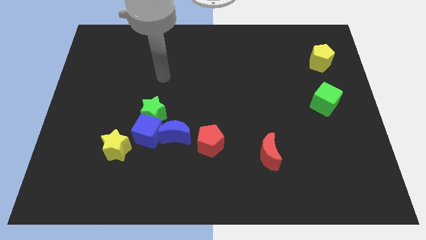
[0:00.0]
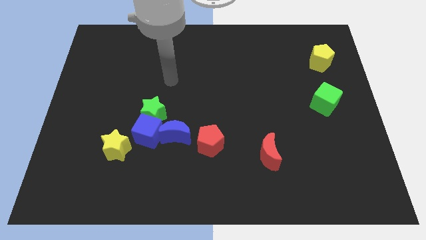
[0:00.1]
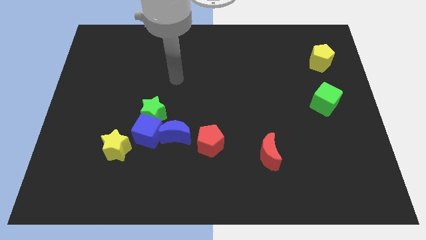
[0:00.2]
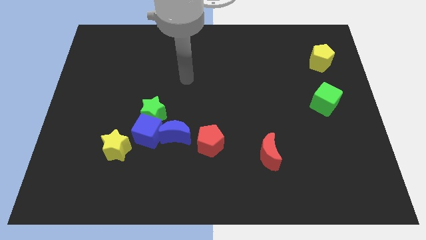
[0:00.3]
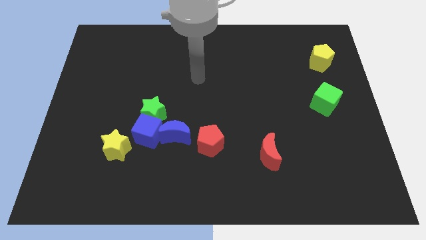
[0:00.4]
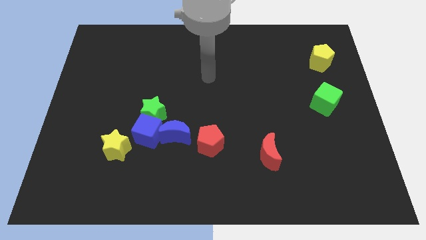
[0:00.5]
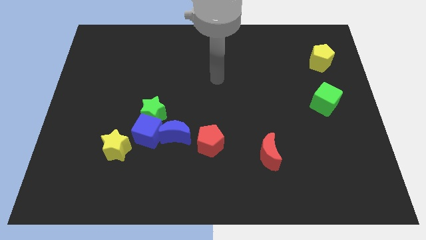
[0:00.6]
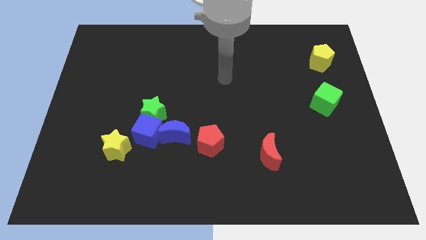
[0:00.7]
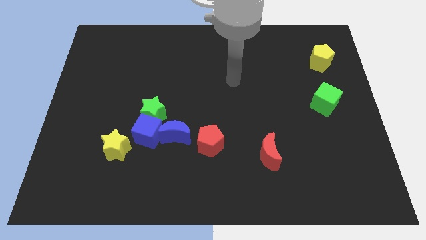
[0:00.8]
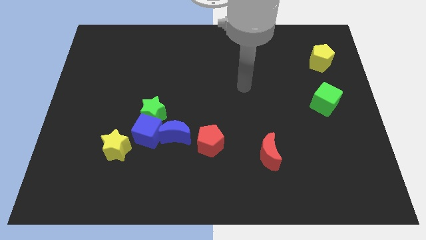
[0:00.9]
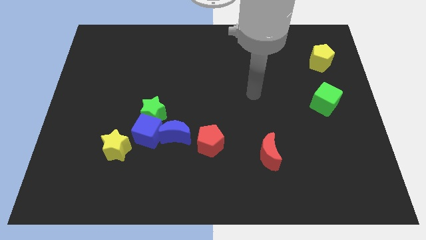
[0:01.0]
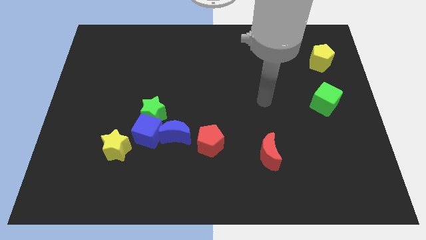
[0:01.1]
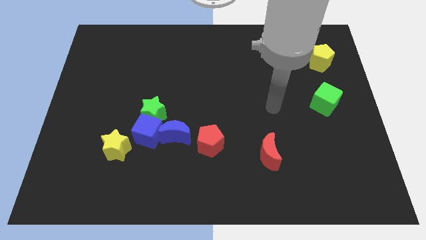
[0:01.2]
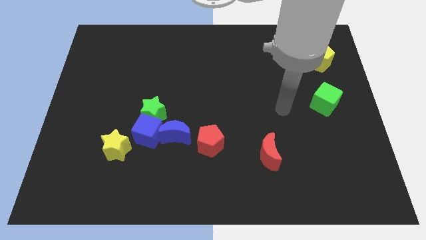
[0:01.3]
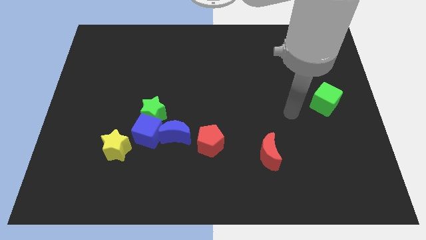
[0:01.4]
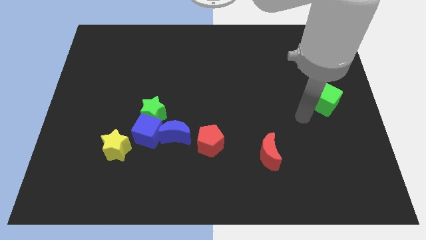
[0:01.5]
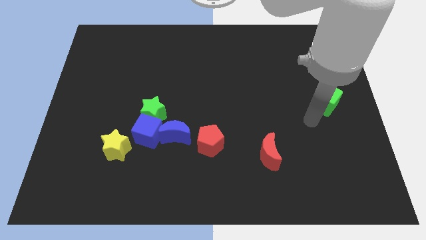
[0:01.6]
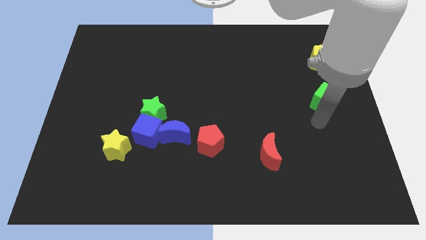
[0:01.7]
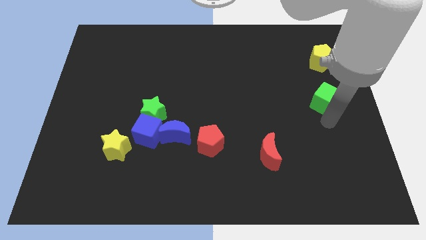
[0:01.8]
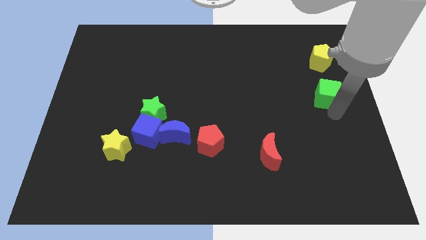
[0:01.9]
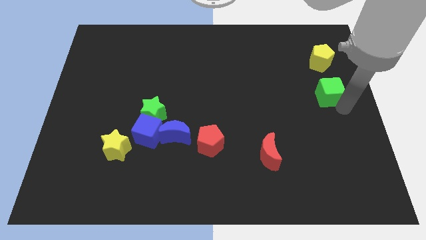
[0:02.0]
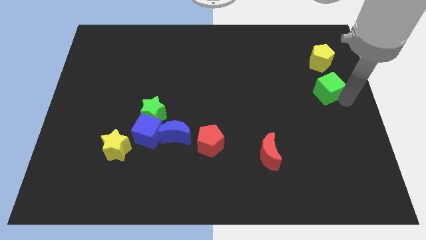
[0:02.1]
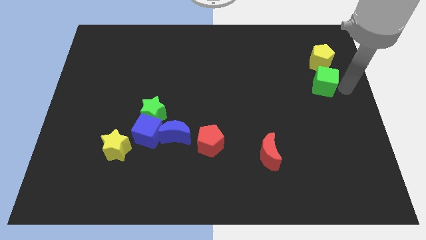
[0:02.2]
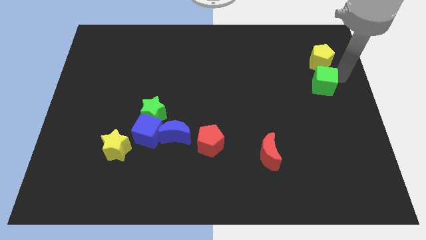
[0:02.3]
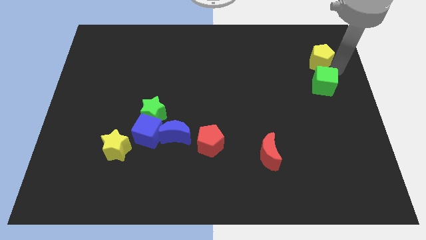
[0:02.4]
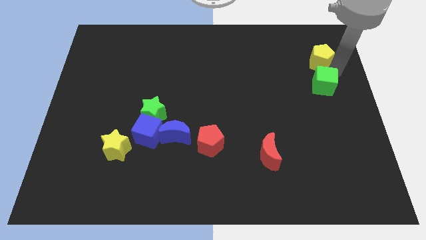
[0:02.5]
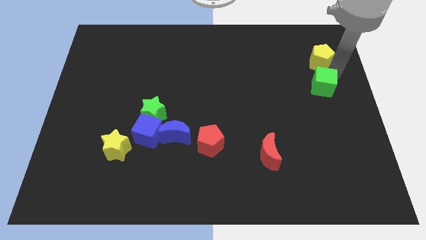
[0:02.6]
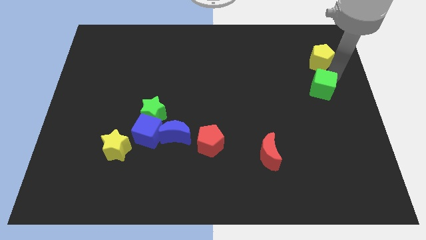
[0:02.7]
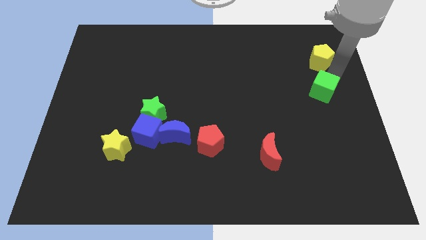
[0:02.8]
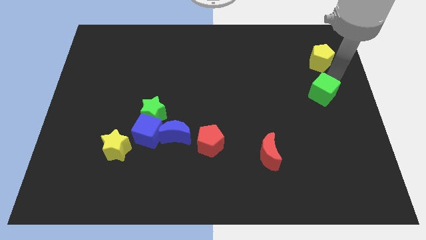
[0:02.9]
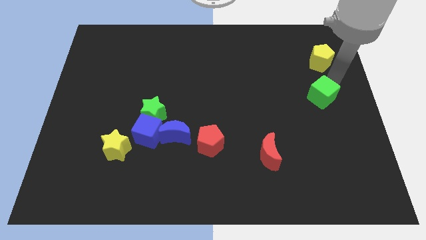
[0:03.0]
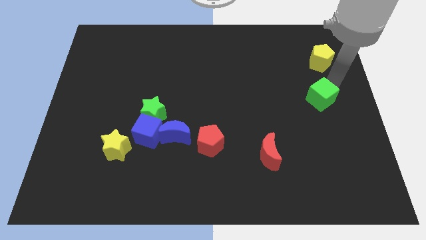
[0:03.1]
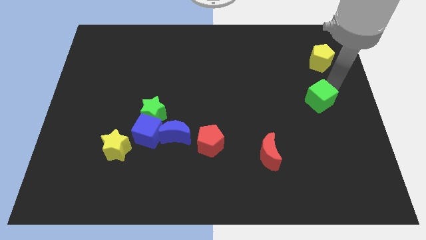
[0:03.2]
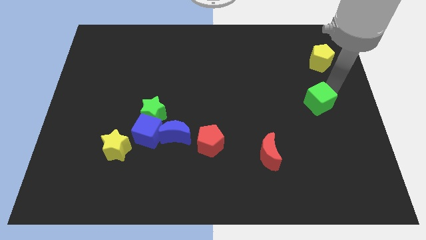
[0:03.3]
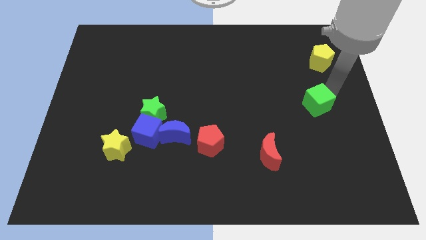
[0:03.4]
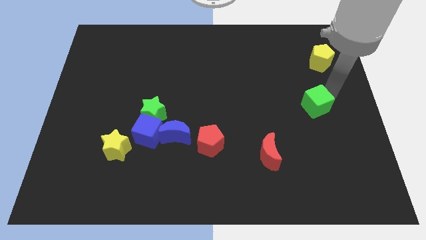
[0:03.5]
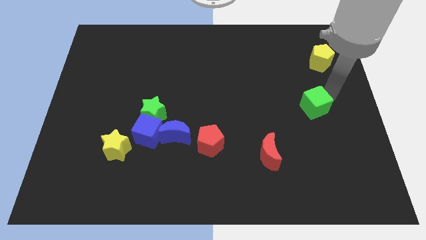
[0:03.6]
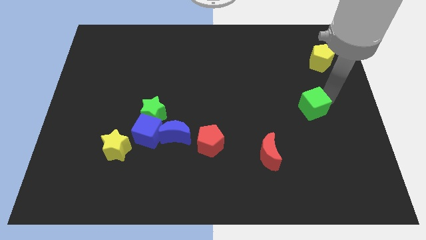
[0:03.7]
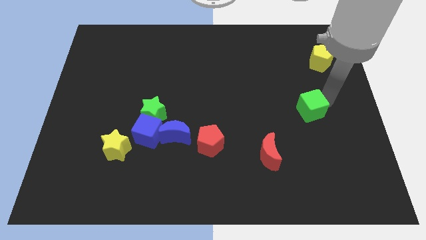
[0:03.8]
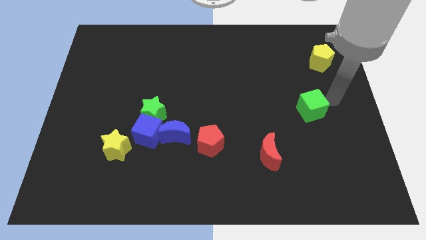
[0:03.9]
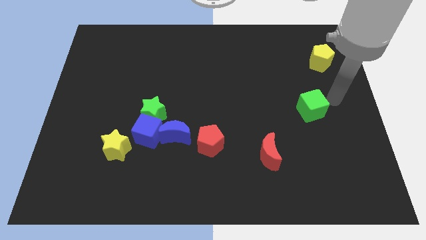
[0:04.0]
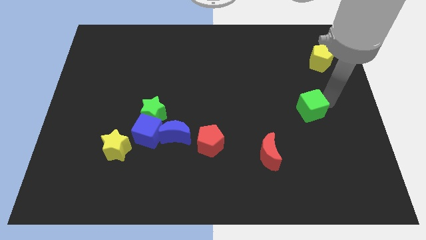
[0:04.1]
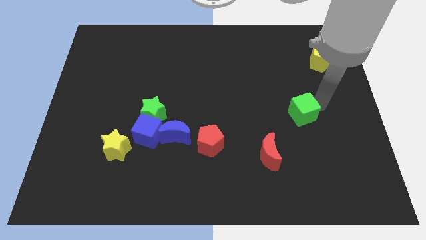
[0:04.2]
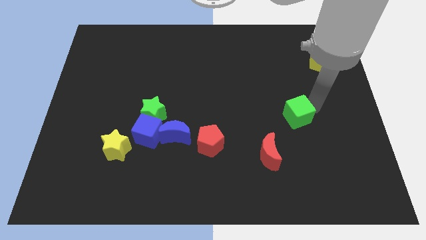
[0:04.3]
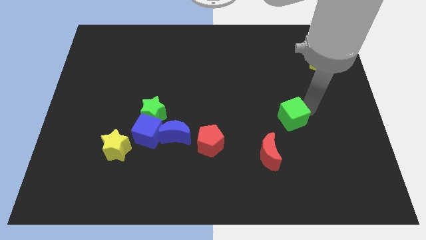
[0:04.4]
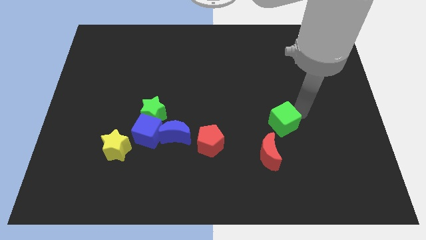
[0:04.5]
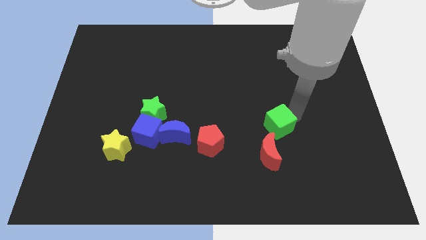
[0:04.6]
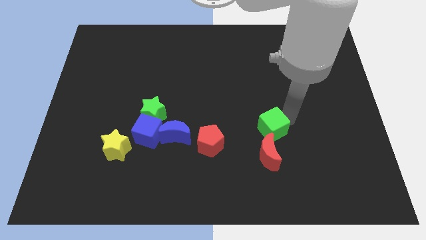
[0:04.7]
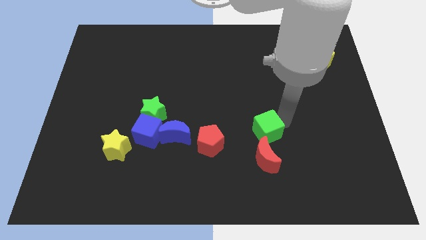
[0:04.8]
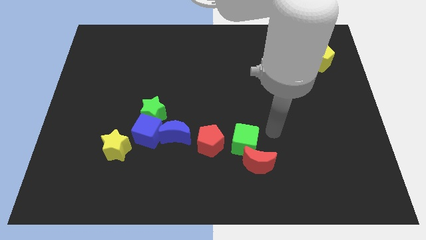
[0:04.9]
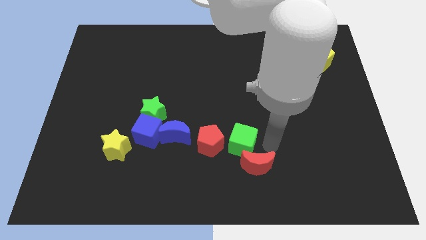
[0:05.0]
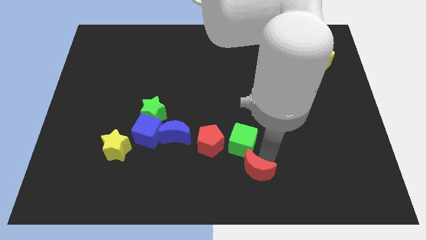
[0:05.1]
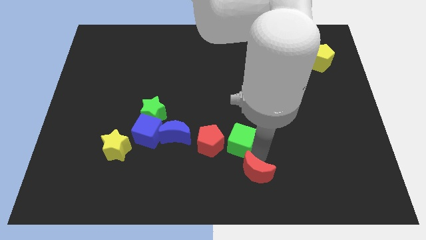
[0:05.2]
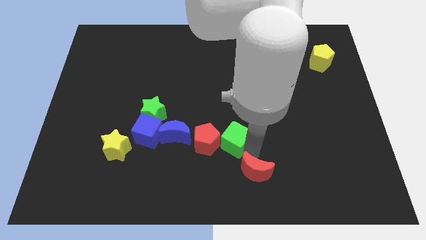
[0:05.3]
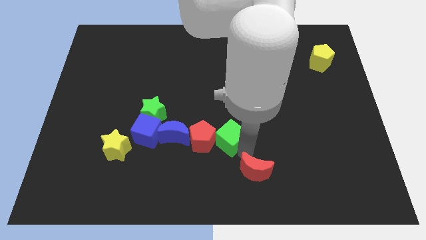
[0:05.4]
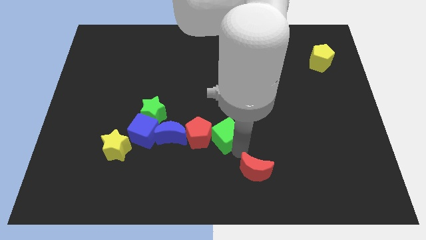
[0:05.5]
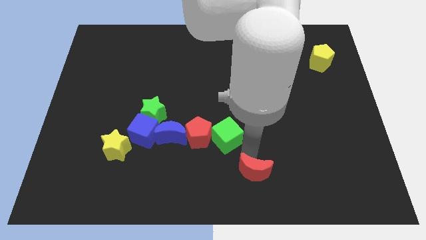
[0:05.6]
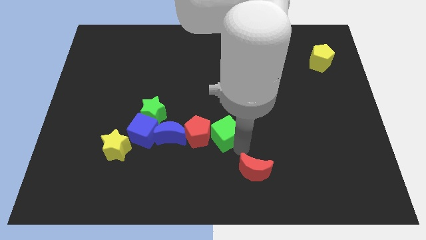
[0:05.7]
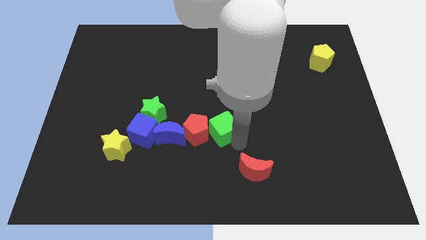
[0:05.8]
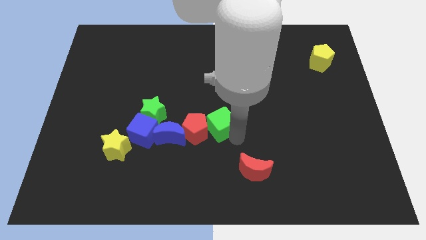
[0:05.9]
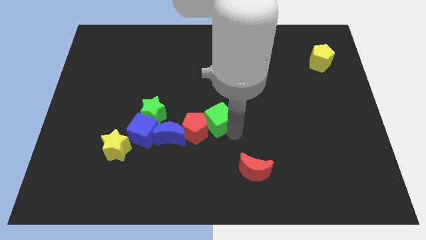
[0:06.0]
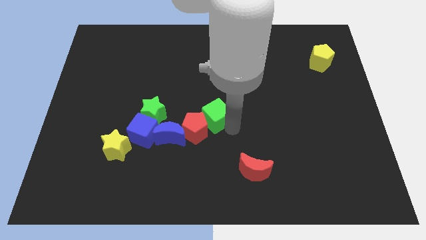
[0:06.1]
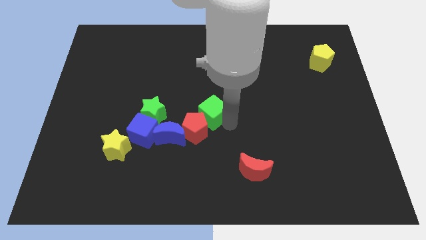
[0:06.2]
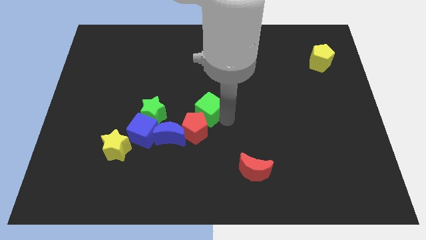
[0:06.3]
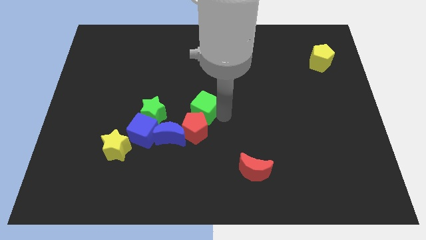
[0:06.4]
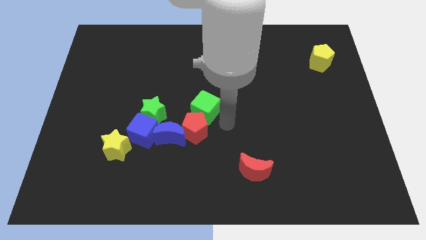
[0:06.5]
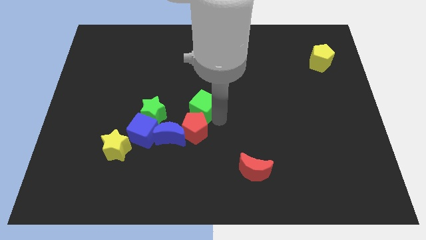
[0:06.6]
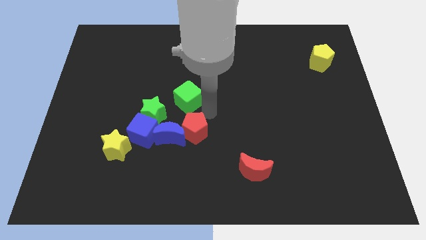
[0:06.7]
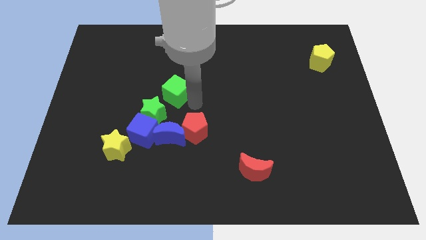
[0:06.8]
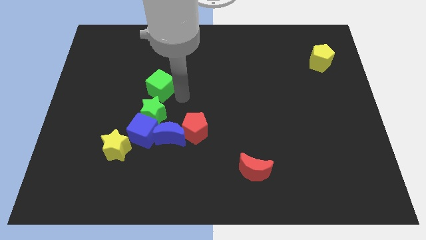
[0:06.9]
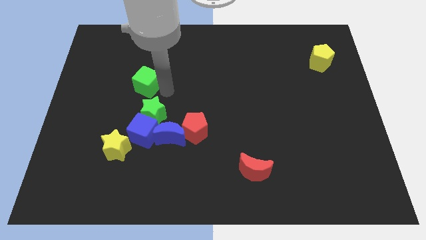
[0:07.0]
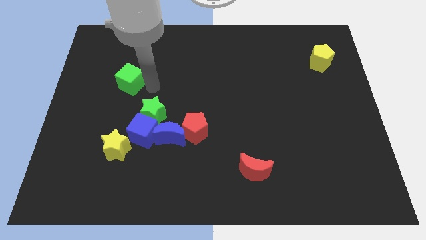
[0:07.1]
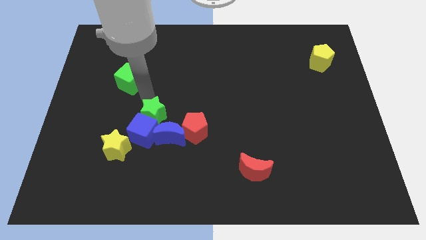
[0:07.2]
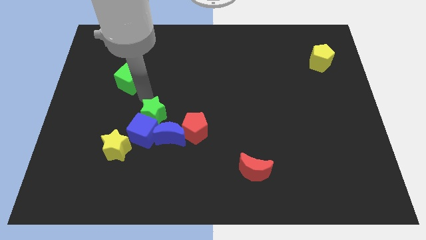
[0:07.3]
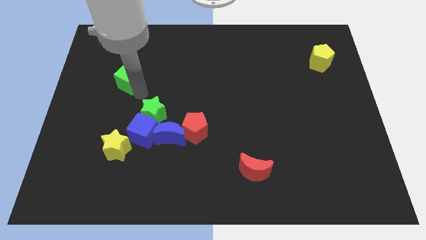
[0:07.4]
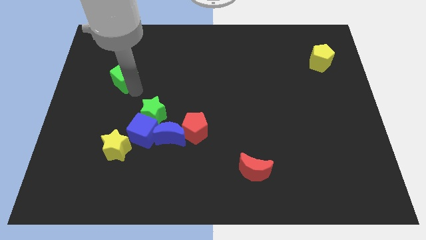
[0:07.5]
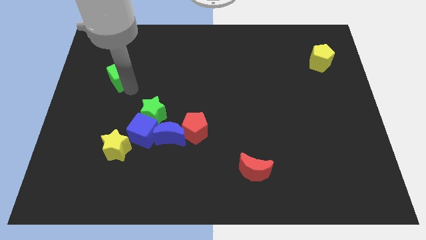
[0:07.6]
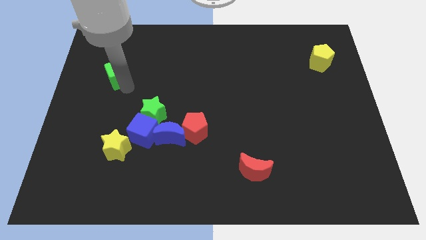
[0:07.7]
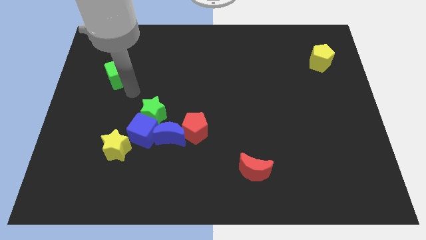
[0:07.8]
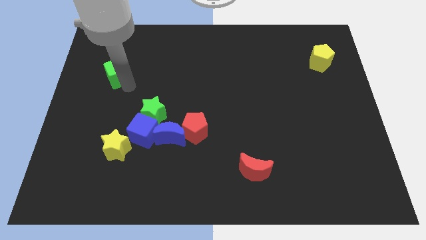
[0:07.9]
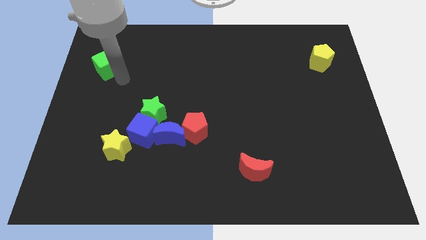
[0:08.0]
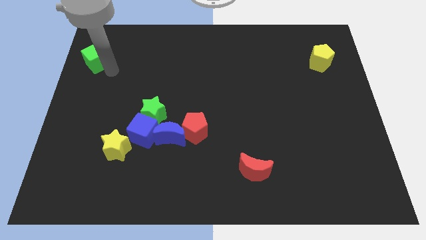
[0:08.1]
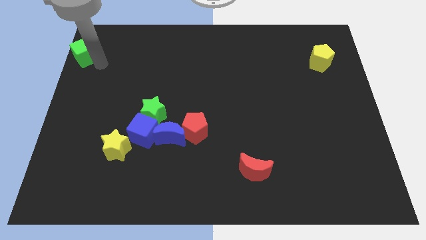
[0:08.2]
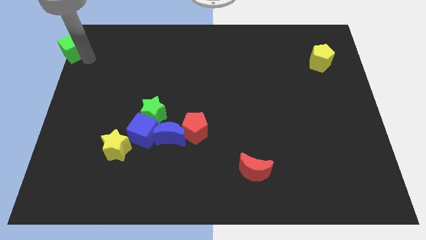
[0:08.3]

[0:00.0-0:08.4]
slide the green cube to the top left of the board
